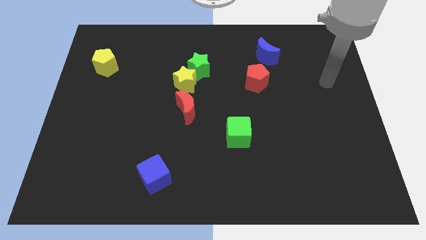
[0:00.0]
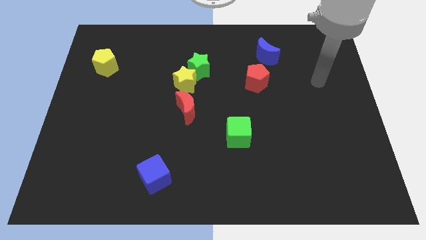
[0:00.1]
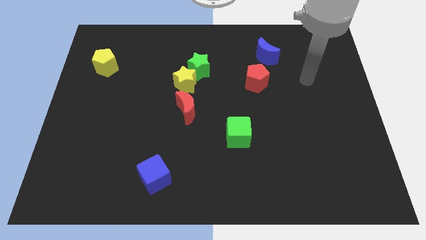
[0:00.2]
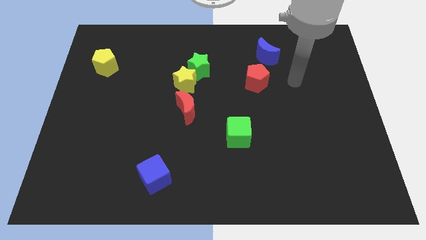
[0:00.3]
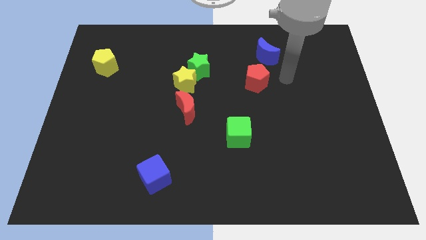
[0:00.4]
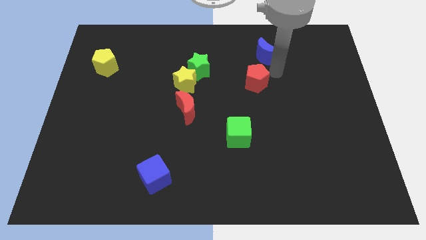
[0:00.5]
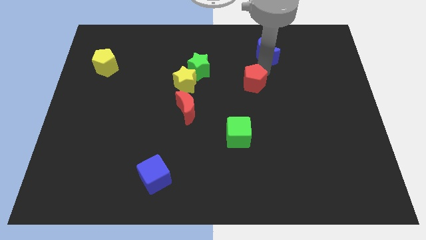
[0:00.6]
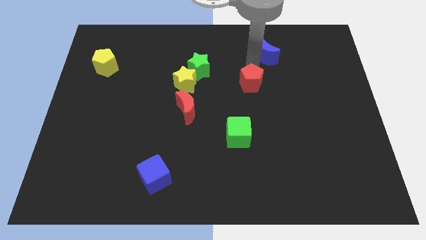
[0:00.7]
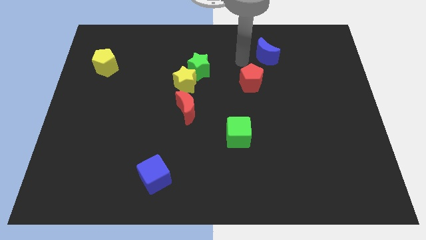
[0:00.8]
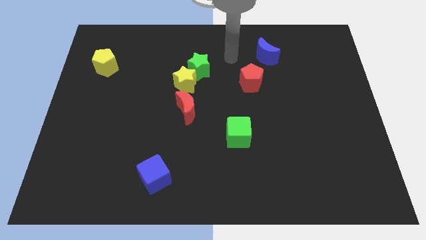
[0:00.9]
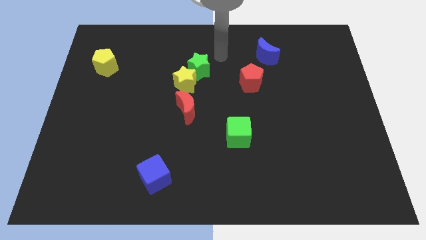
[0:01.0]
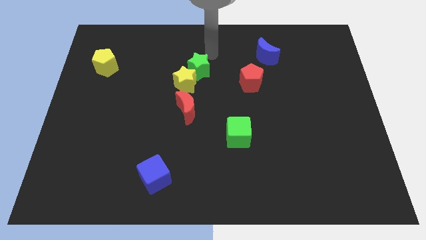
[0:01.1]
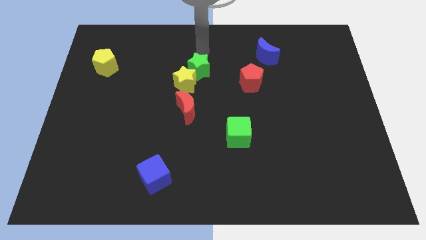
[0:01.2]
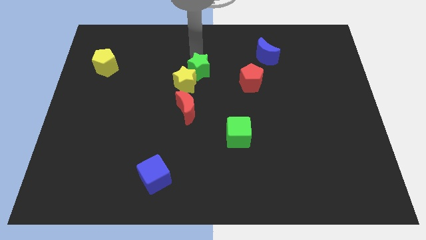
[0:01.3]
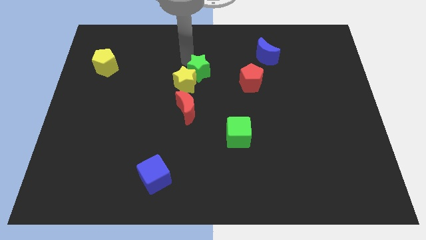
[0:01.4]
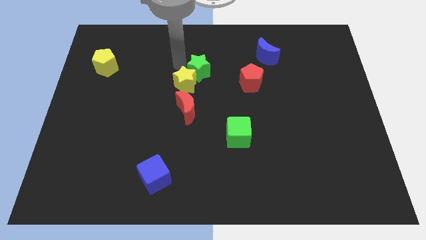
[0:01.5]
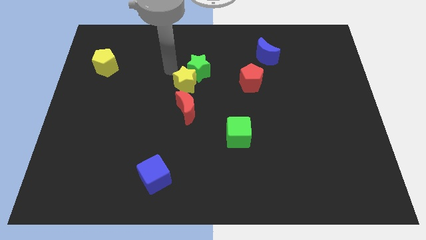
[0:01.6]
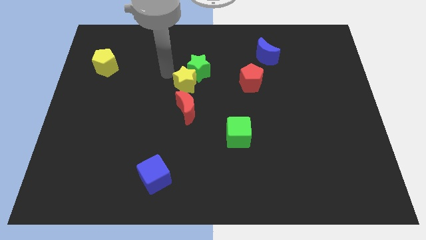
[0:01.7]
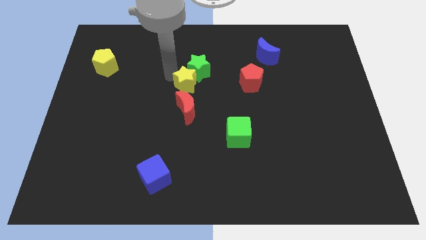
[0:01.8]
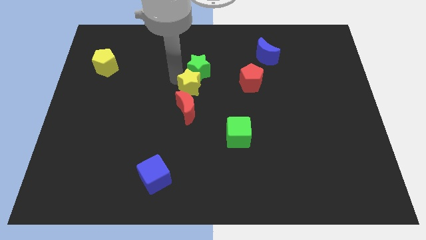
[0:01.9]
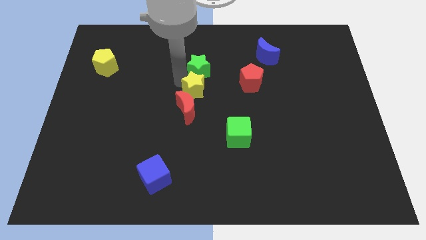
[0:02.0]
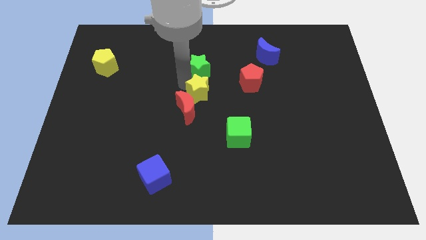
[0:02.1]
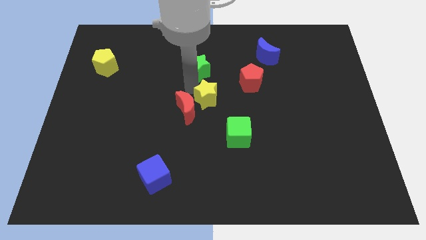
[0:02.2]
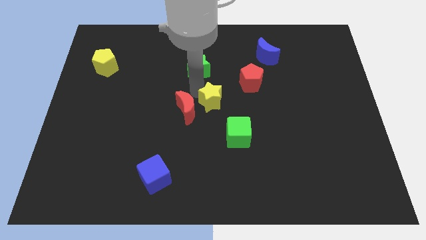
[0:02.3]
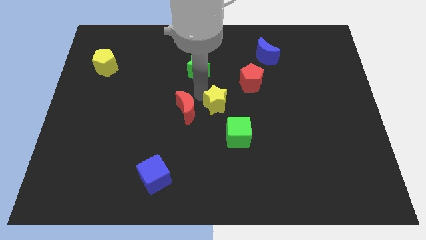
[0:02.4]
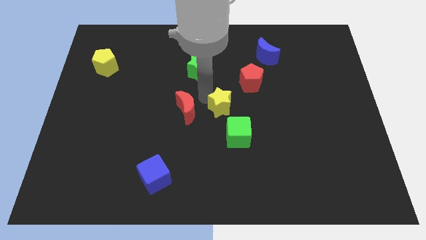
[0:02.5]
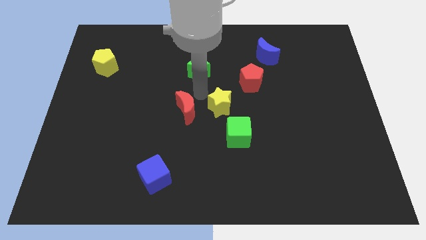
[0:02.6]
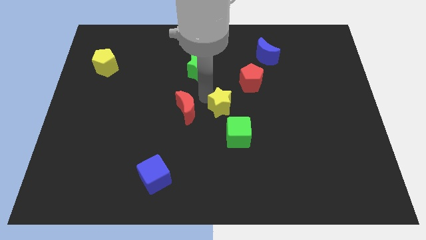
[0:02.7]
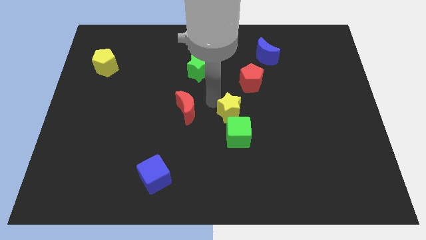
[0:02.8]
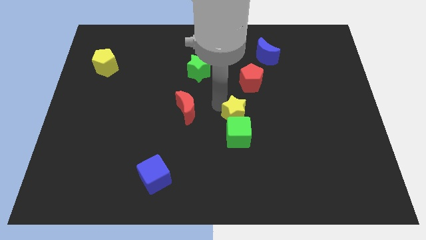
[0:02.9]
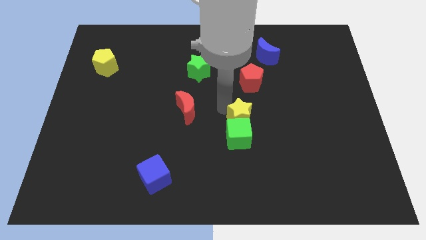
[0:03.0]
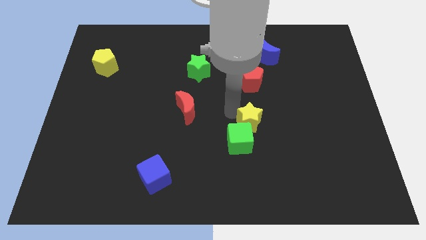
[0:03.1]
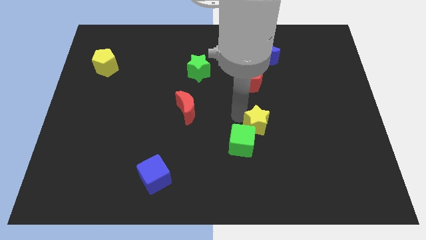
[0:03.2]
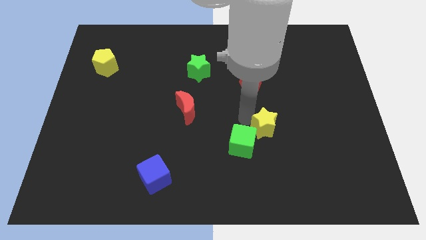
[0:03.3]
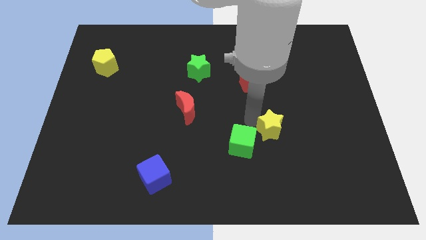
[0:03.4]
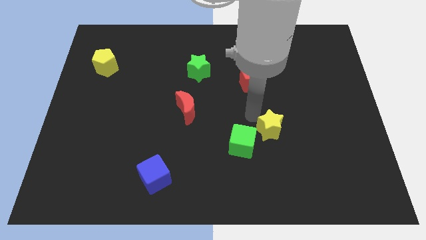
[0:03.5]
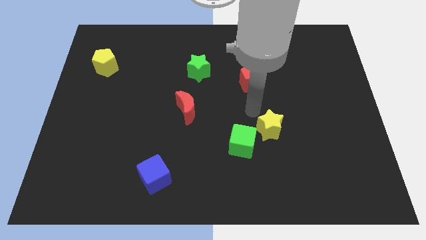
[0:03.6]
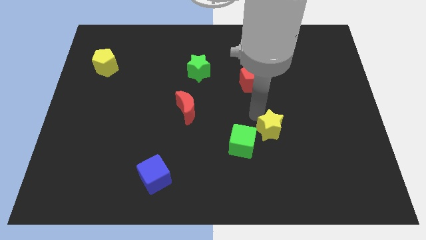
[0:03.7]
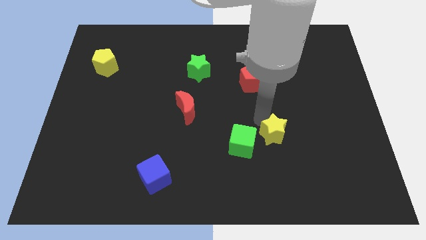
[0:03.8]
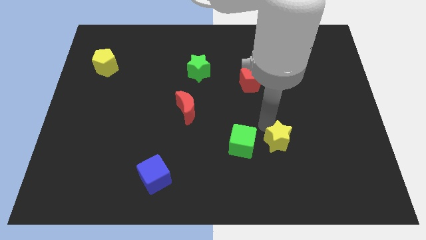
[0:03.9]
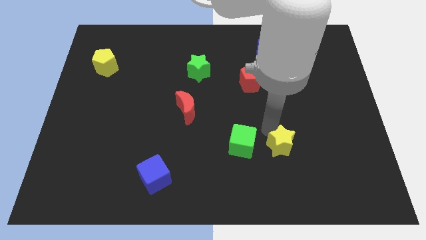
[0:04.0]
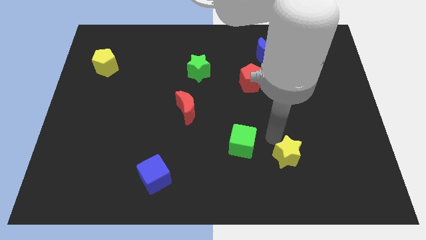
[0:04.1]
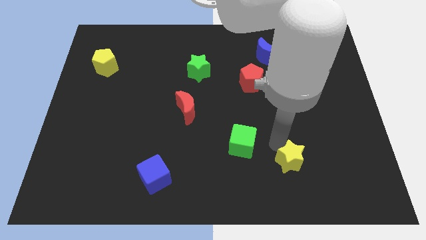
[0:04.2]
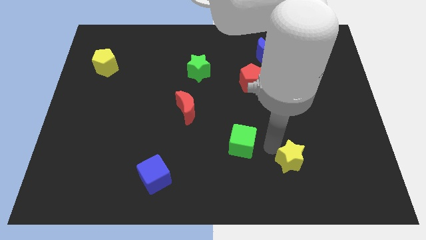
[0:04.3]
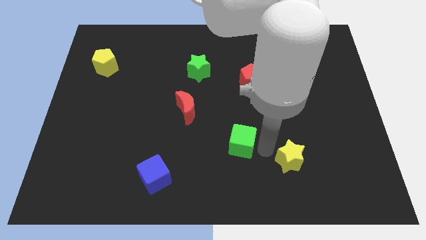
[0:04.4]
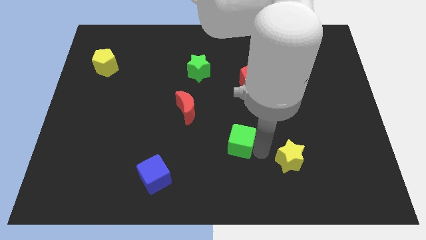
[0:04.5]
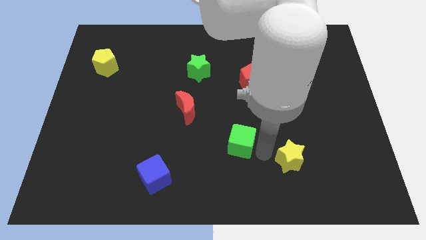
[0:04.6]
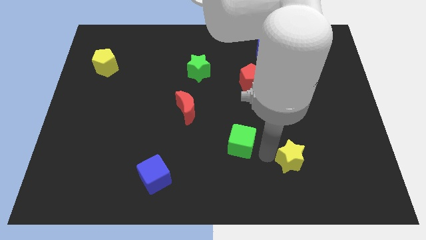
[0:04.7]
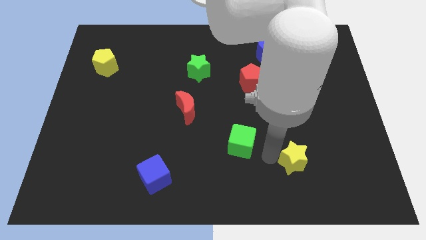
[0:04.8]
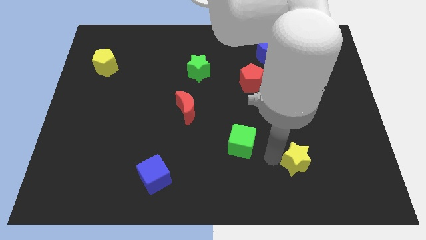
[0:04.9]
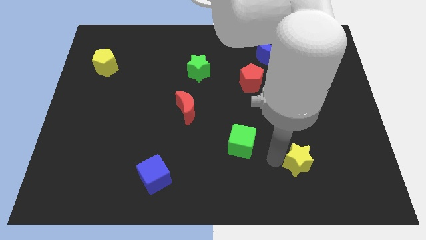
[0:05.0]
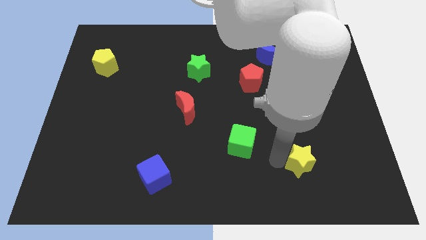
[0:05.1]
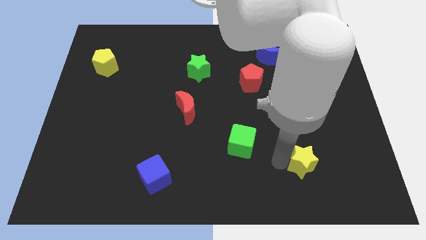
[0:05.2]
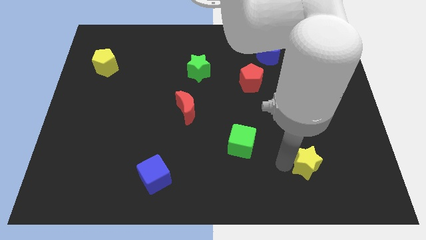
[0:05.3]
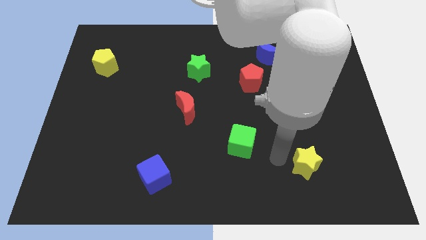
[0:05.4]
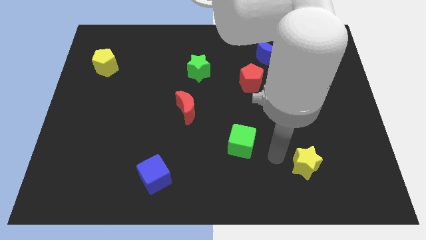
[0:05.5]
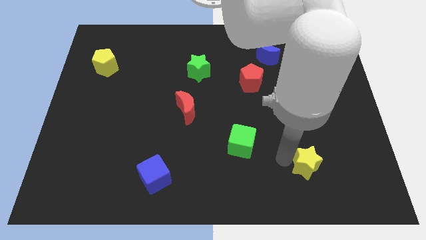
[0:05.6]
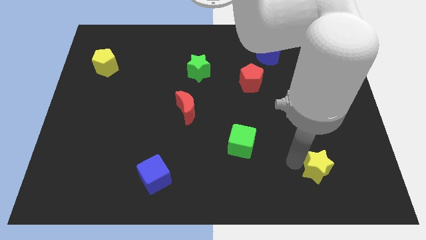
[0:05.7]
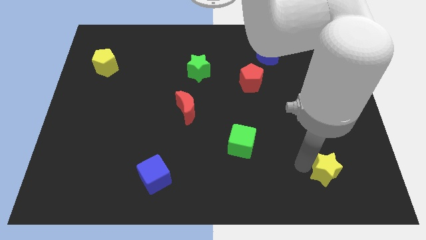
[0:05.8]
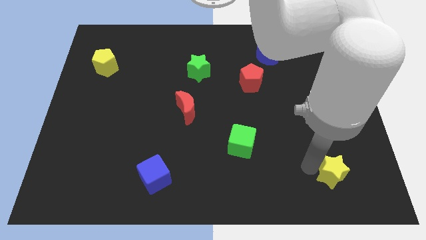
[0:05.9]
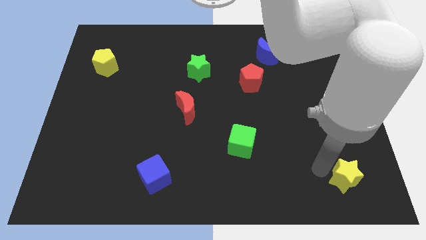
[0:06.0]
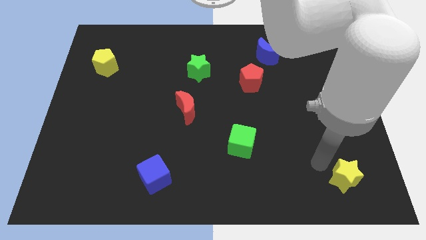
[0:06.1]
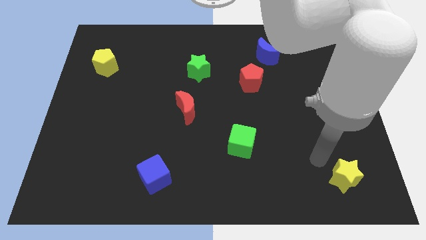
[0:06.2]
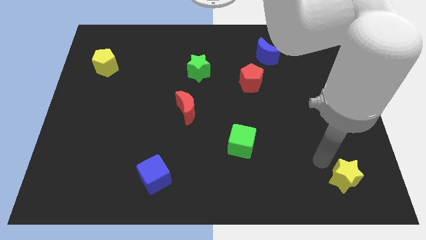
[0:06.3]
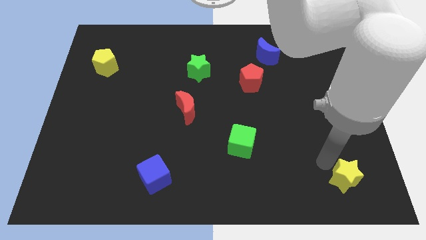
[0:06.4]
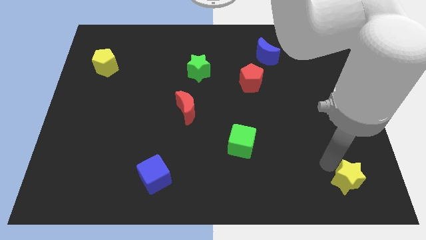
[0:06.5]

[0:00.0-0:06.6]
slide the yellow star to the bottom right of the board

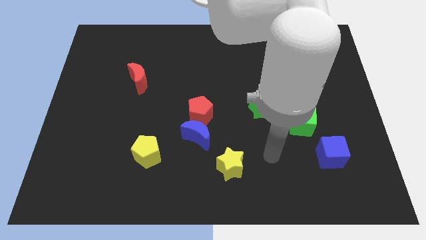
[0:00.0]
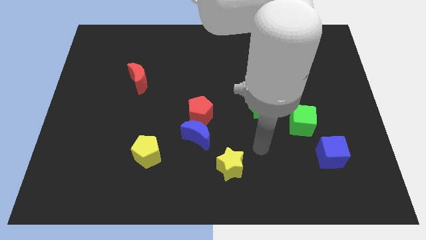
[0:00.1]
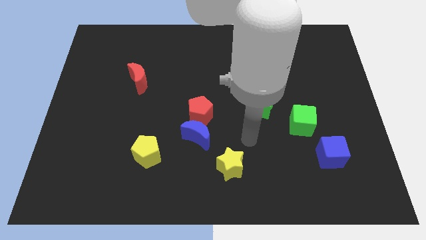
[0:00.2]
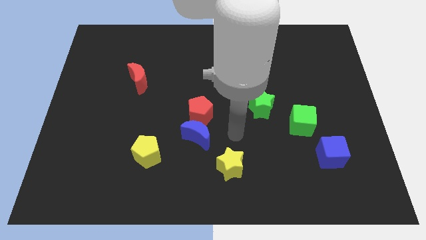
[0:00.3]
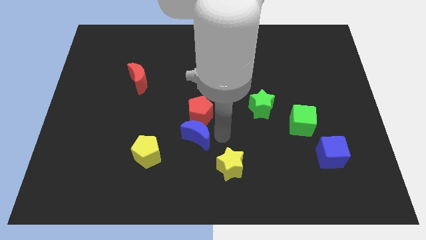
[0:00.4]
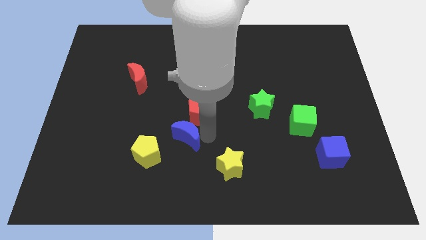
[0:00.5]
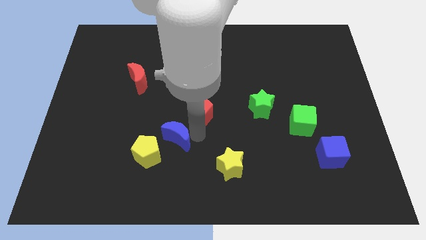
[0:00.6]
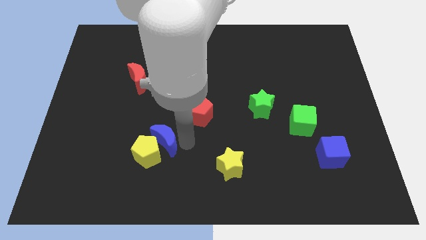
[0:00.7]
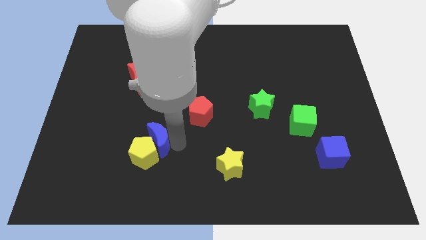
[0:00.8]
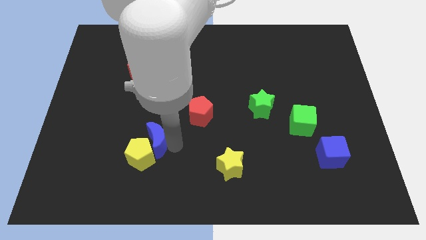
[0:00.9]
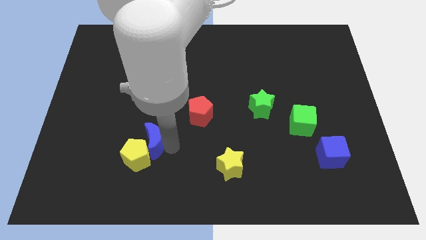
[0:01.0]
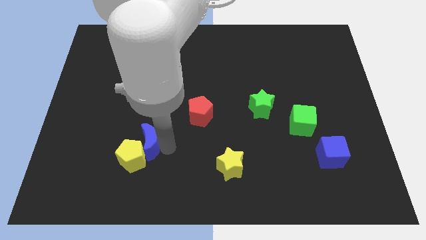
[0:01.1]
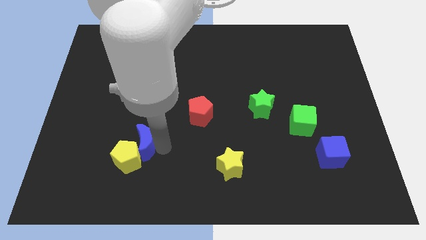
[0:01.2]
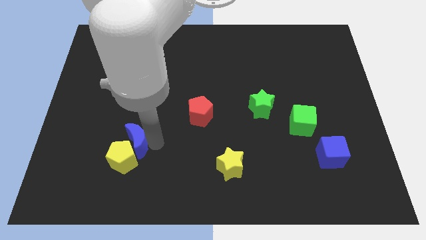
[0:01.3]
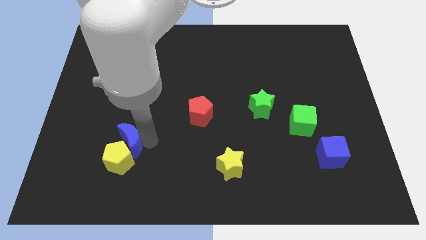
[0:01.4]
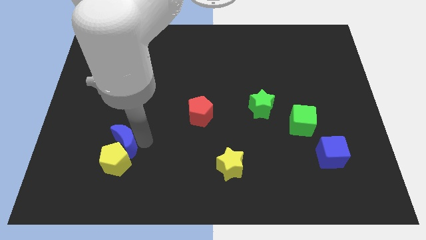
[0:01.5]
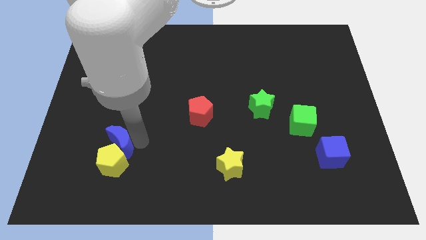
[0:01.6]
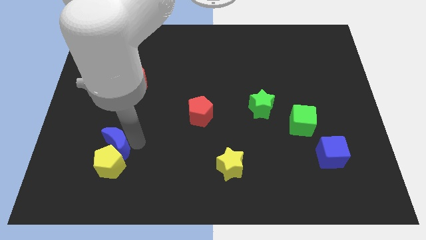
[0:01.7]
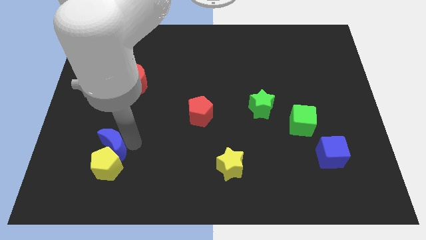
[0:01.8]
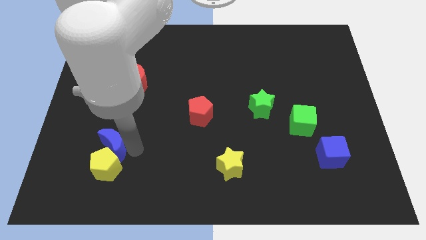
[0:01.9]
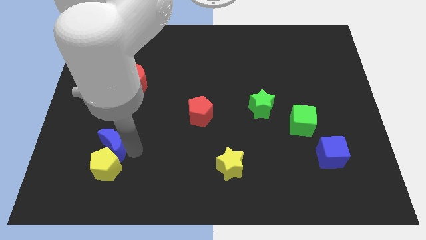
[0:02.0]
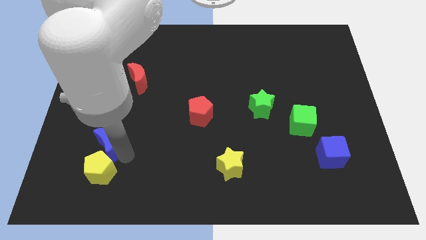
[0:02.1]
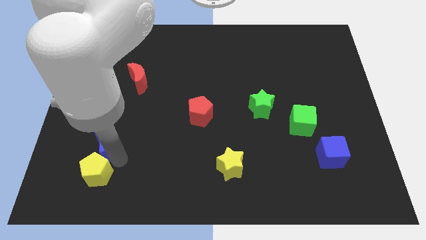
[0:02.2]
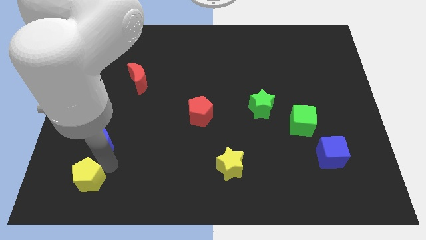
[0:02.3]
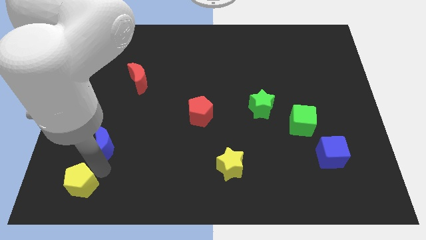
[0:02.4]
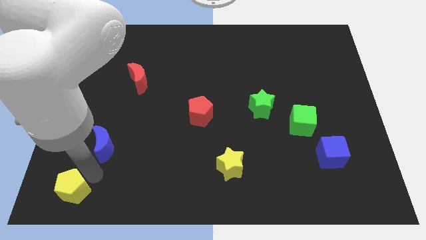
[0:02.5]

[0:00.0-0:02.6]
slide the yellow pentagon to the bottom left of the board
